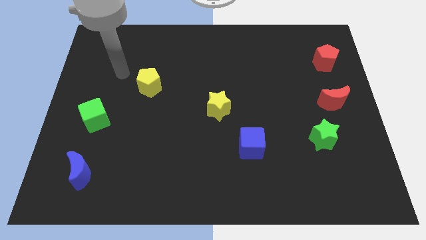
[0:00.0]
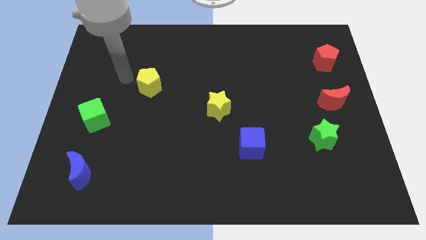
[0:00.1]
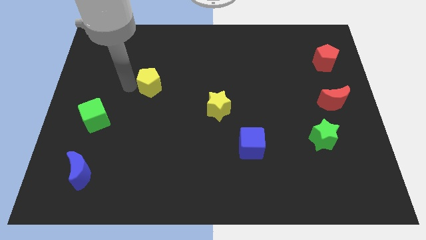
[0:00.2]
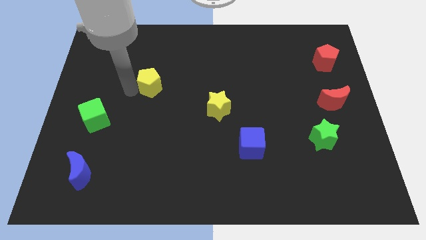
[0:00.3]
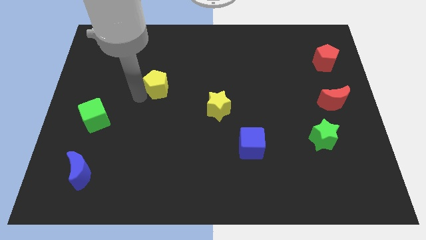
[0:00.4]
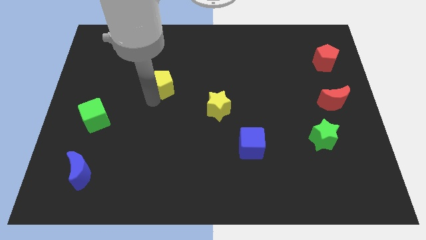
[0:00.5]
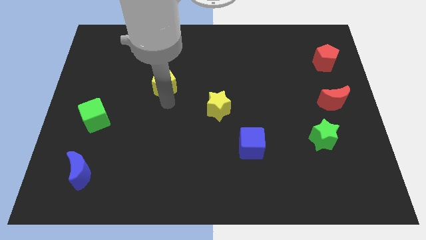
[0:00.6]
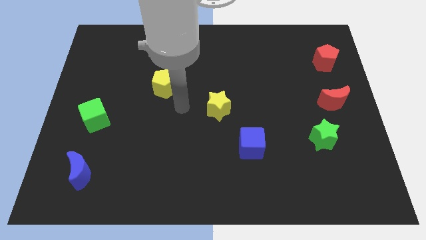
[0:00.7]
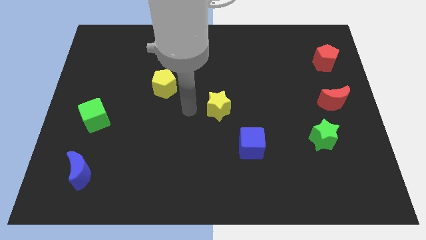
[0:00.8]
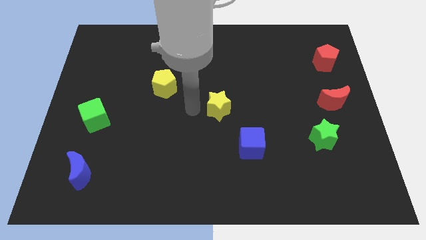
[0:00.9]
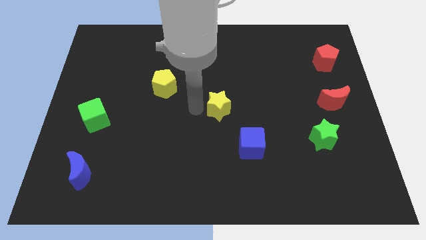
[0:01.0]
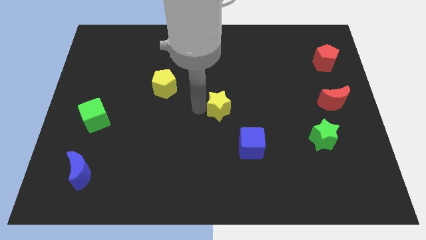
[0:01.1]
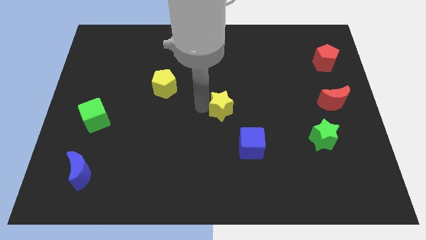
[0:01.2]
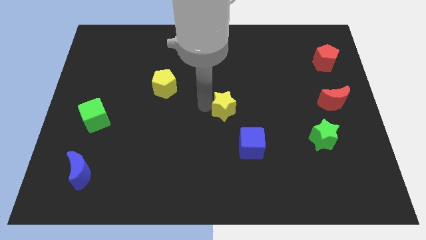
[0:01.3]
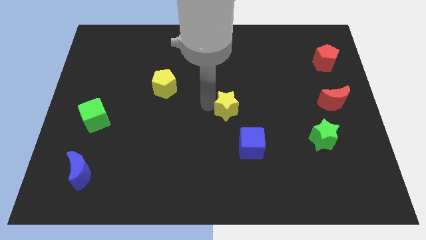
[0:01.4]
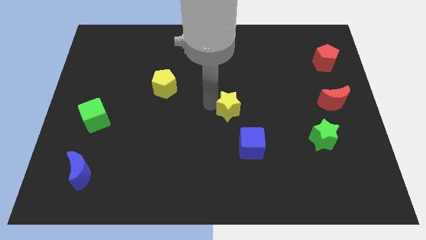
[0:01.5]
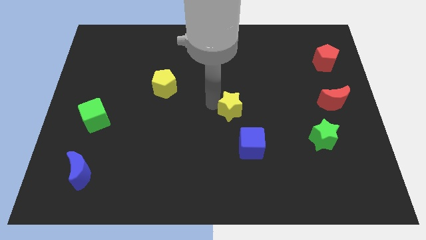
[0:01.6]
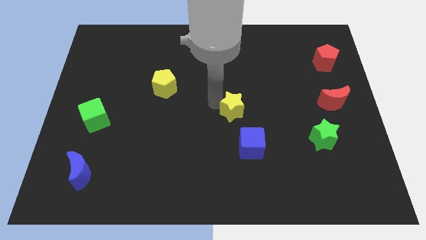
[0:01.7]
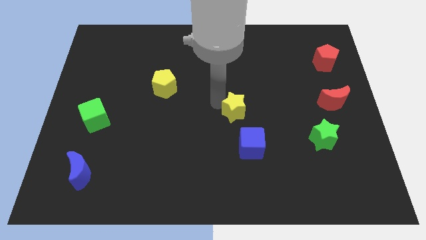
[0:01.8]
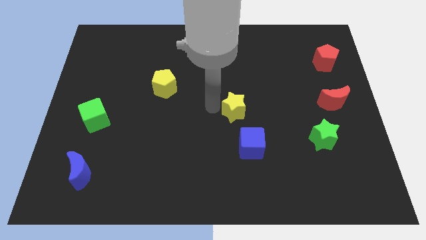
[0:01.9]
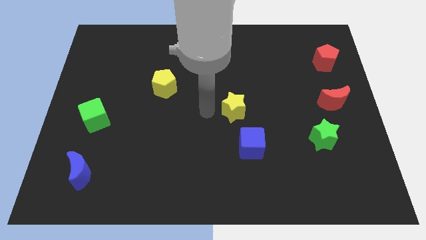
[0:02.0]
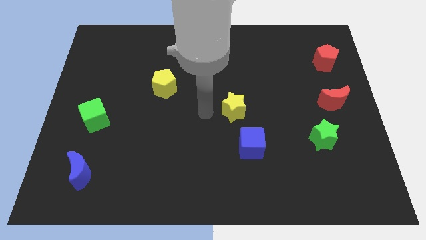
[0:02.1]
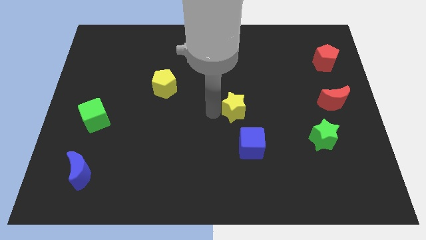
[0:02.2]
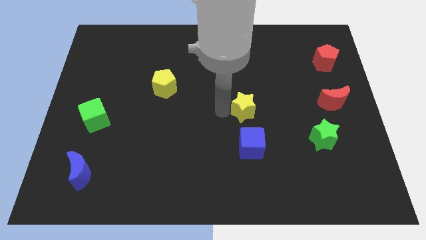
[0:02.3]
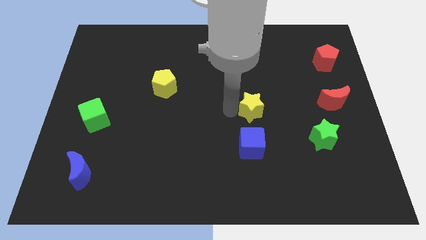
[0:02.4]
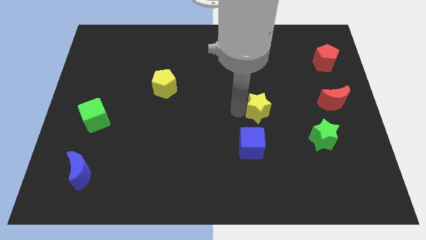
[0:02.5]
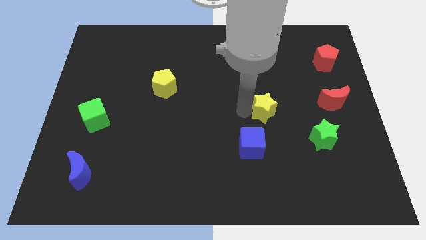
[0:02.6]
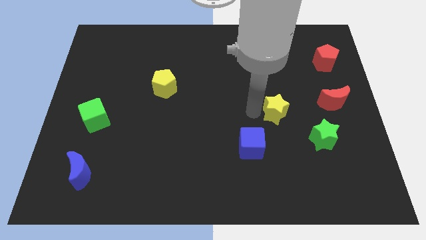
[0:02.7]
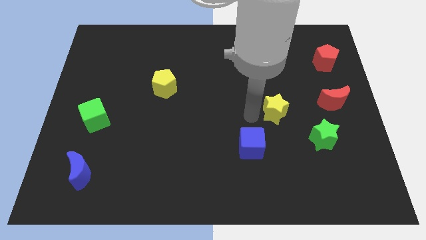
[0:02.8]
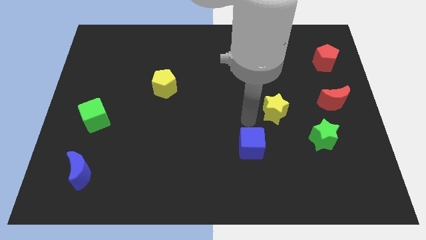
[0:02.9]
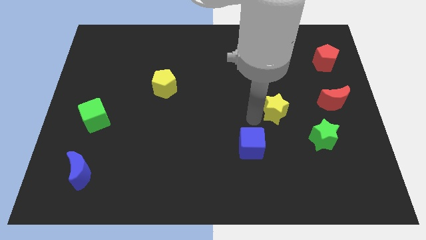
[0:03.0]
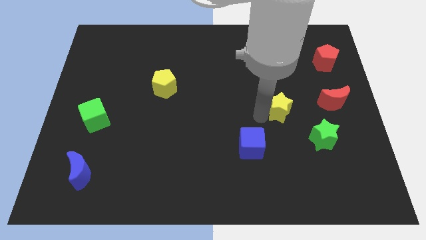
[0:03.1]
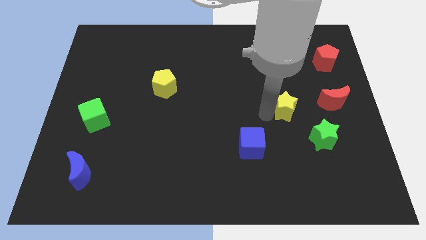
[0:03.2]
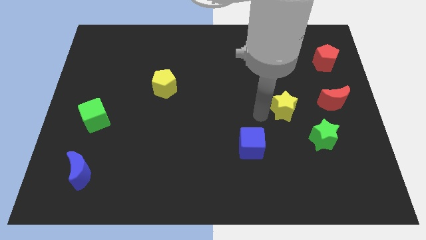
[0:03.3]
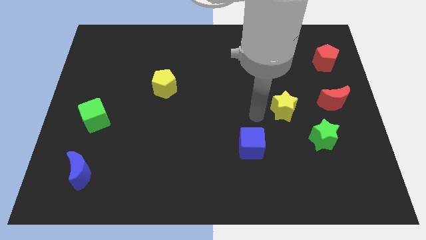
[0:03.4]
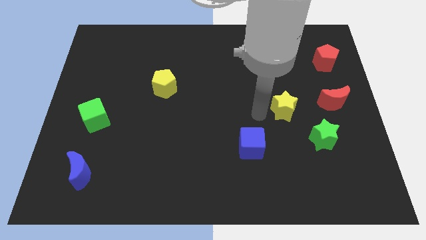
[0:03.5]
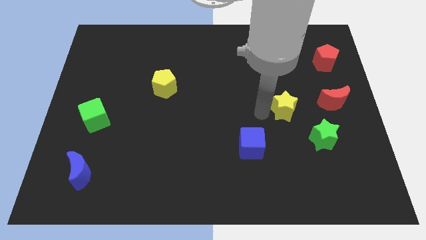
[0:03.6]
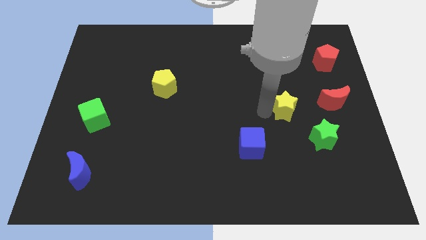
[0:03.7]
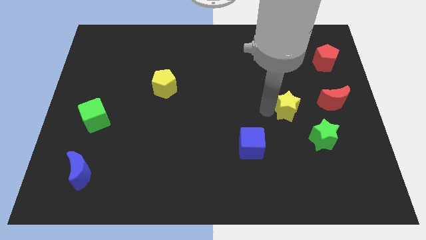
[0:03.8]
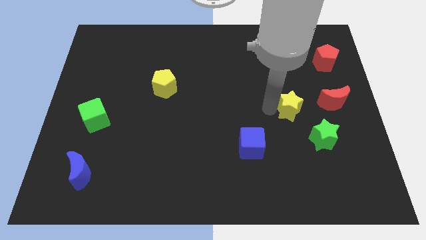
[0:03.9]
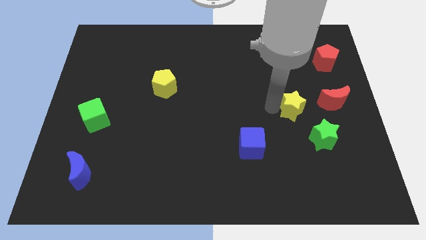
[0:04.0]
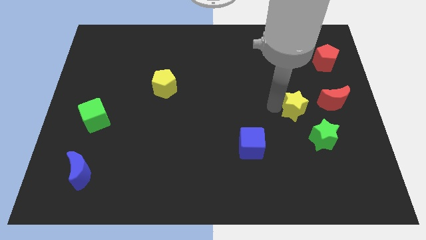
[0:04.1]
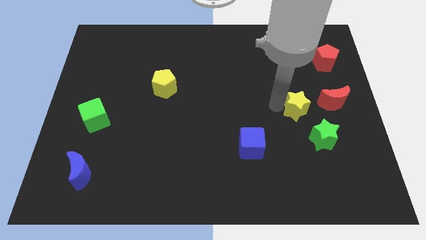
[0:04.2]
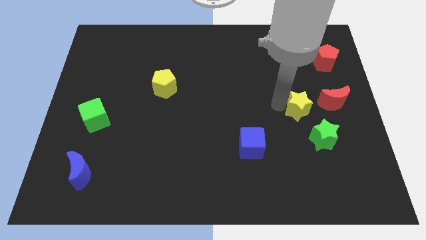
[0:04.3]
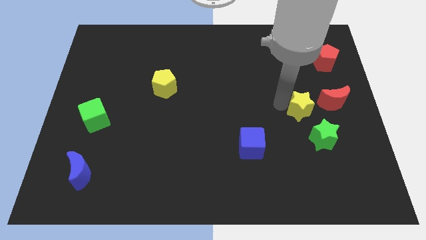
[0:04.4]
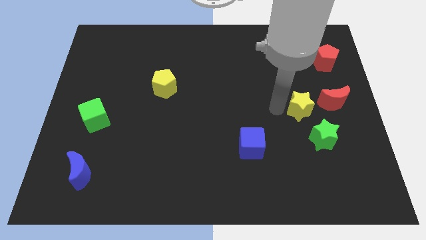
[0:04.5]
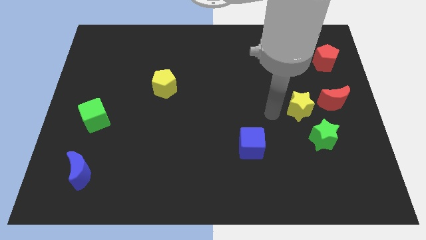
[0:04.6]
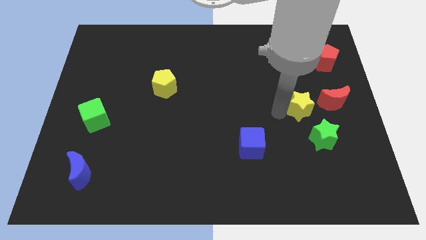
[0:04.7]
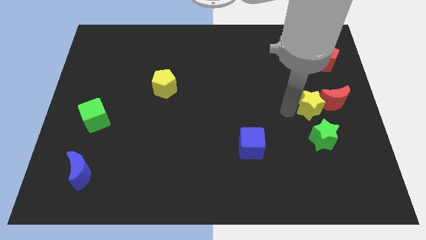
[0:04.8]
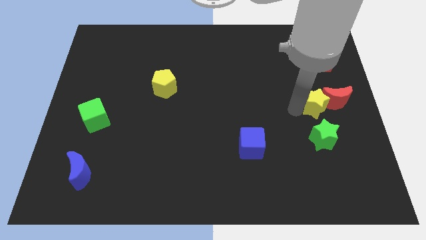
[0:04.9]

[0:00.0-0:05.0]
slide the yellow star close to the red moon

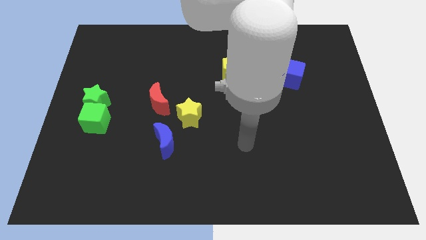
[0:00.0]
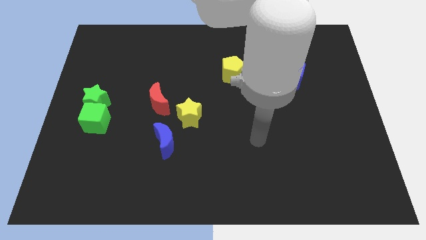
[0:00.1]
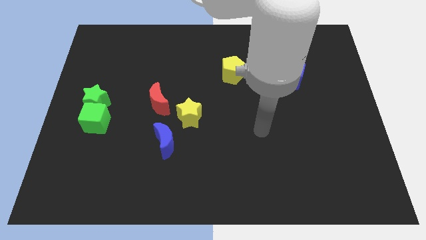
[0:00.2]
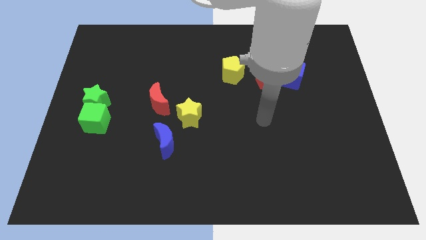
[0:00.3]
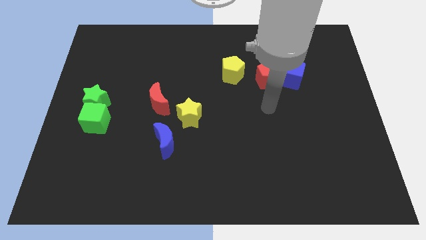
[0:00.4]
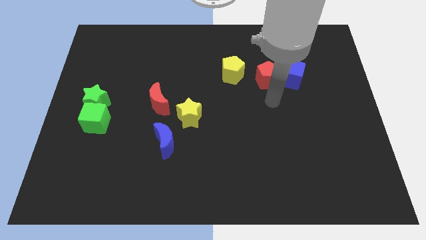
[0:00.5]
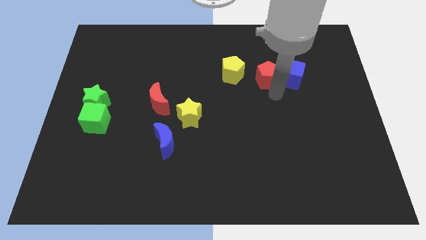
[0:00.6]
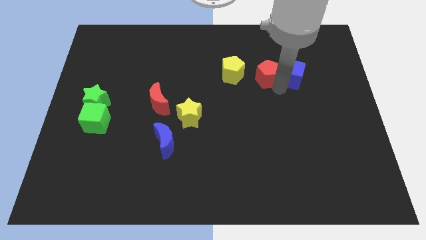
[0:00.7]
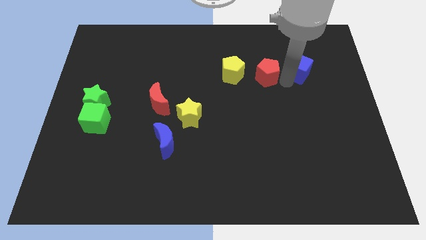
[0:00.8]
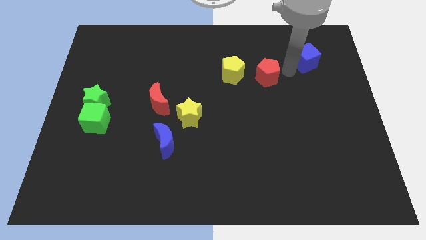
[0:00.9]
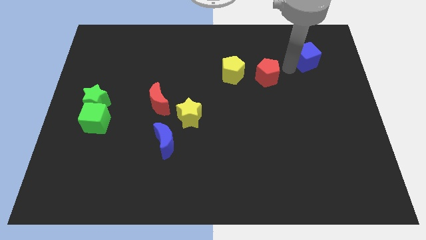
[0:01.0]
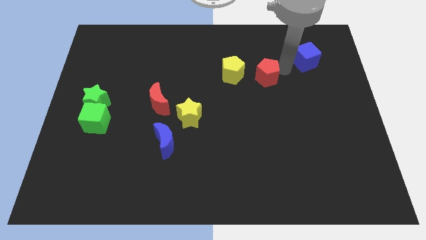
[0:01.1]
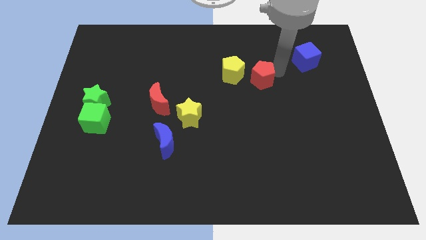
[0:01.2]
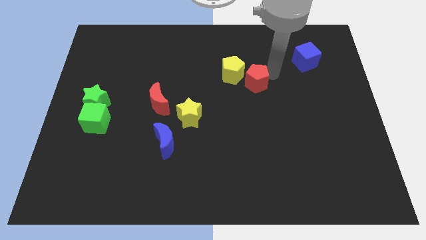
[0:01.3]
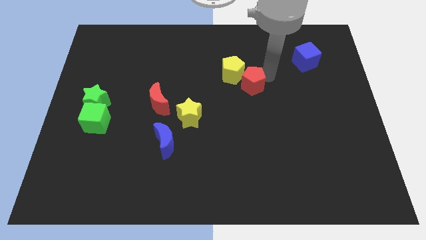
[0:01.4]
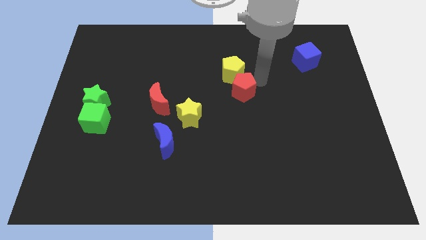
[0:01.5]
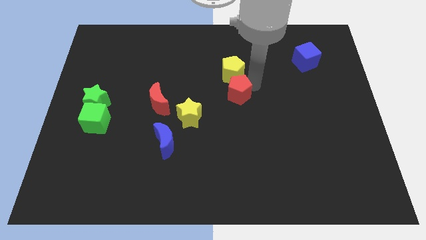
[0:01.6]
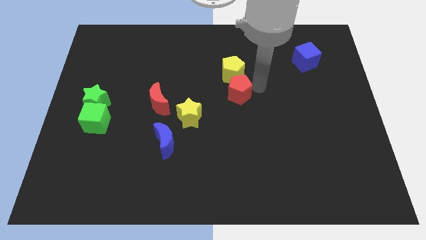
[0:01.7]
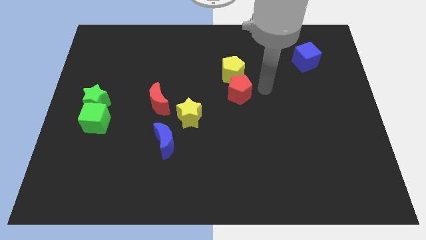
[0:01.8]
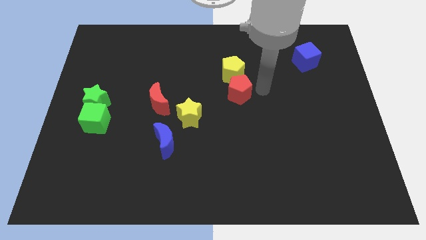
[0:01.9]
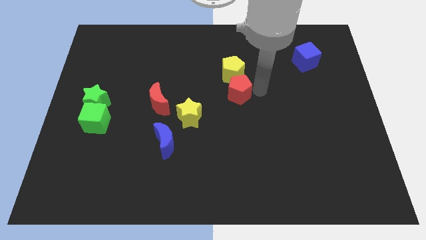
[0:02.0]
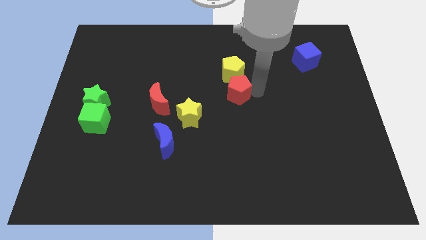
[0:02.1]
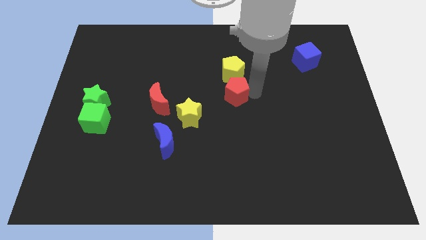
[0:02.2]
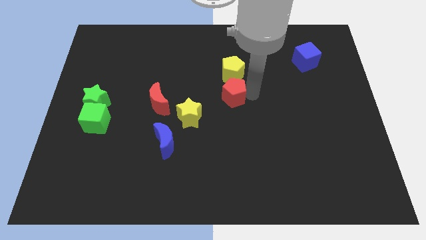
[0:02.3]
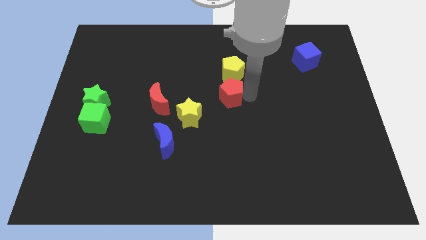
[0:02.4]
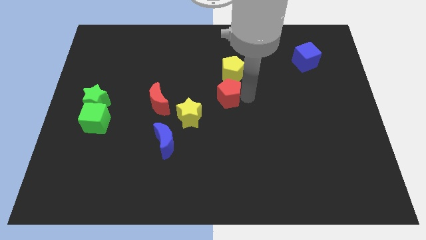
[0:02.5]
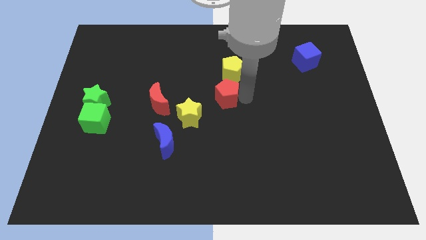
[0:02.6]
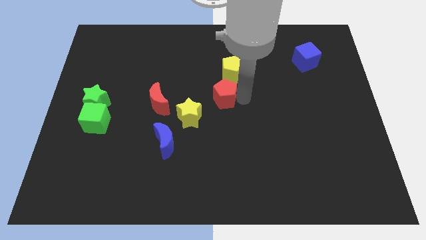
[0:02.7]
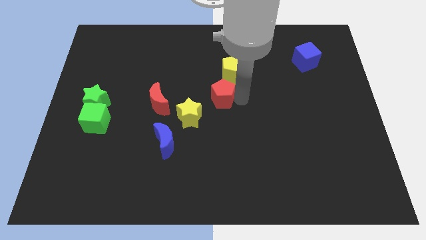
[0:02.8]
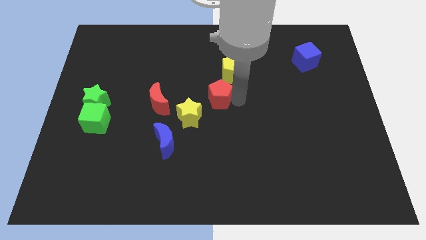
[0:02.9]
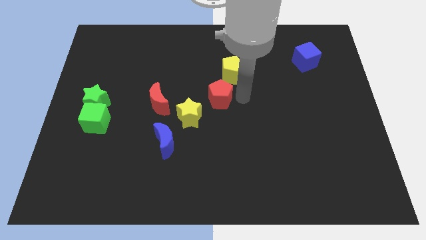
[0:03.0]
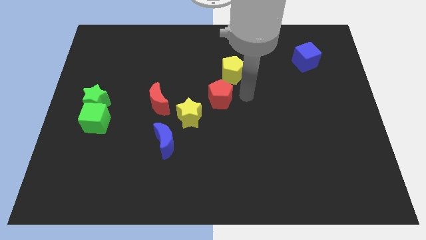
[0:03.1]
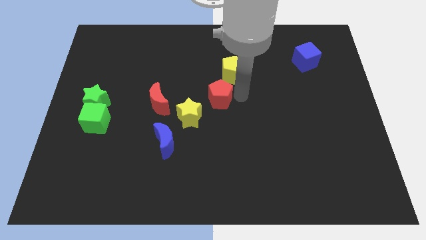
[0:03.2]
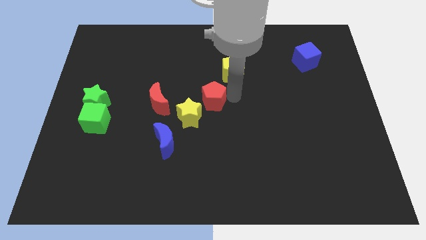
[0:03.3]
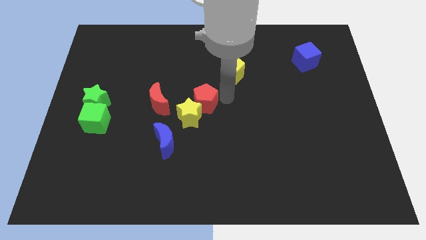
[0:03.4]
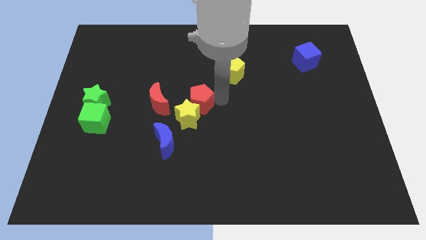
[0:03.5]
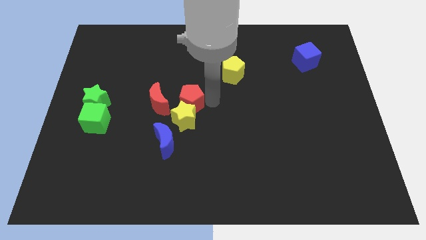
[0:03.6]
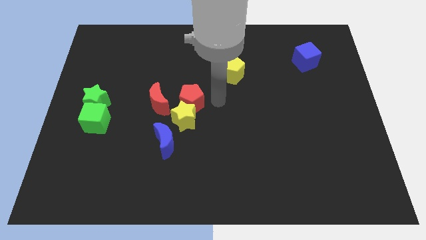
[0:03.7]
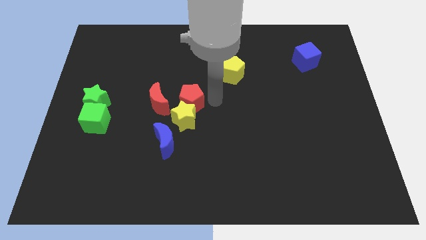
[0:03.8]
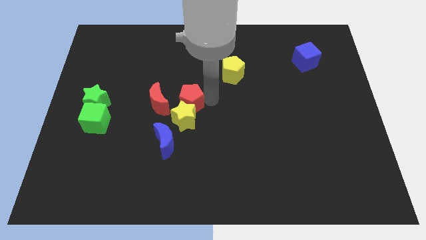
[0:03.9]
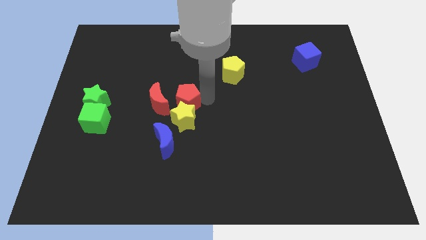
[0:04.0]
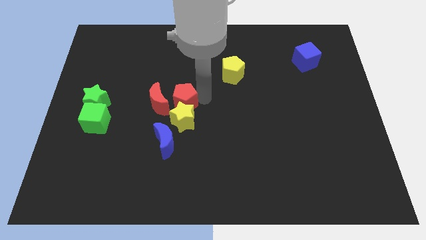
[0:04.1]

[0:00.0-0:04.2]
put the red pentagon towards the red moon
